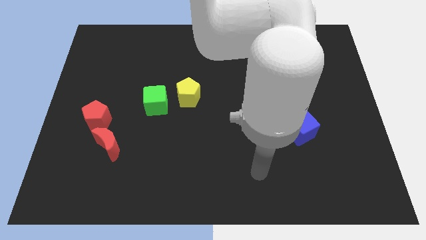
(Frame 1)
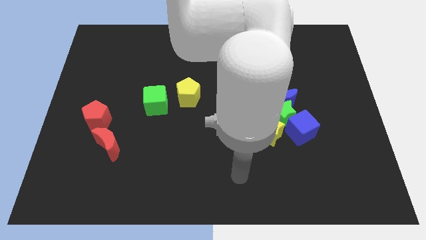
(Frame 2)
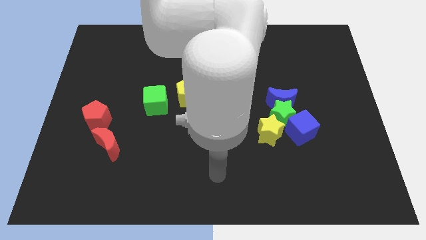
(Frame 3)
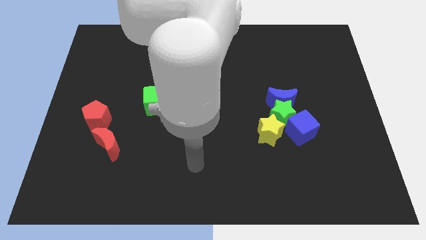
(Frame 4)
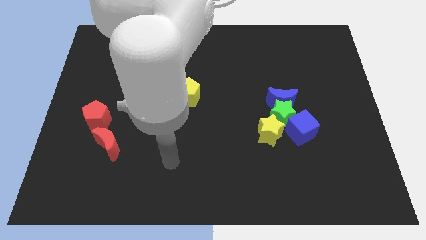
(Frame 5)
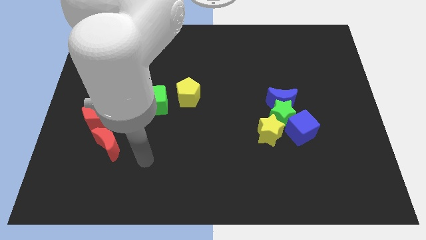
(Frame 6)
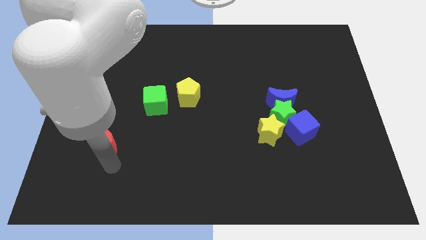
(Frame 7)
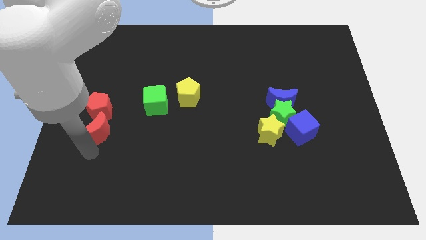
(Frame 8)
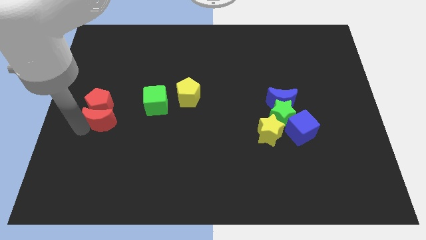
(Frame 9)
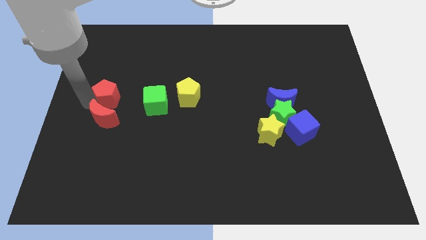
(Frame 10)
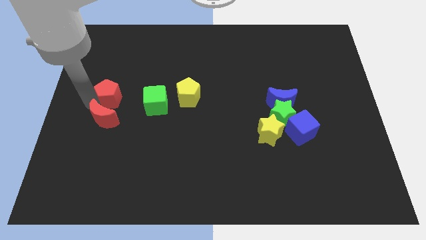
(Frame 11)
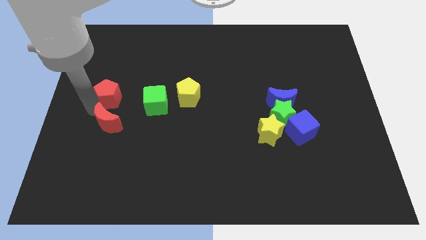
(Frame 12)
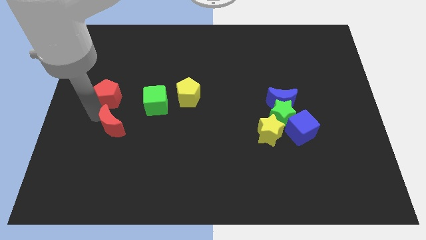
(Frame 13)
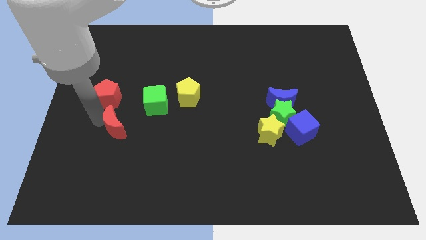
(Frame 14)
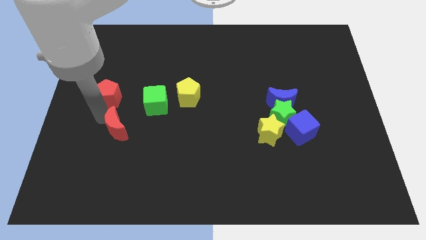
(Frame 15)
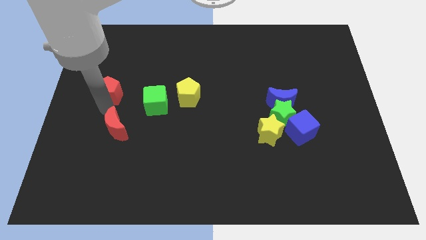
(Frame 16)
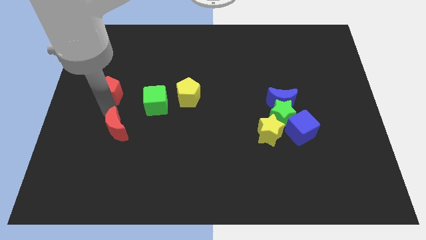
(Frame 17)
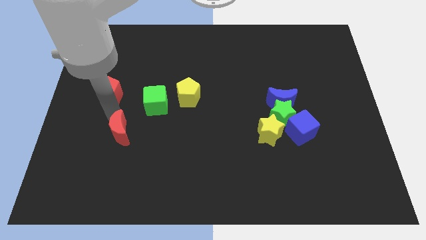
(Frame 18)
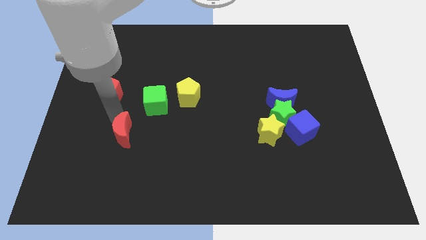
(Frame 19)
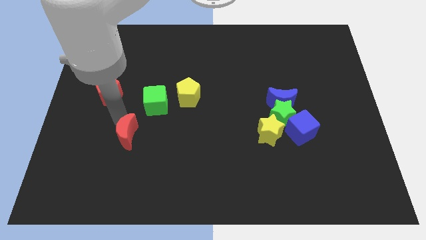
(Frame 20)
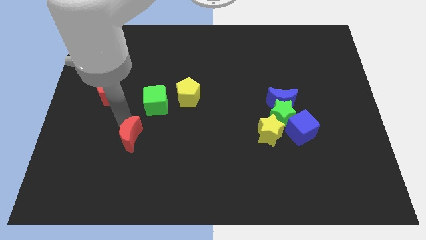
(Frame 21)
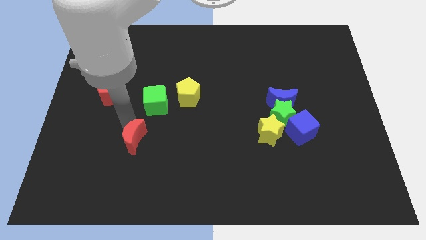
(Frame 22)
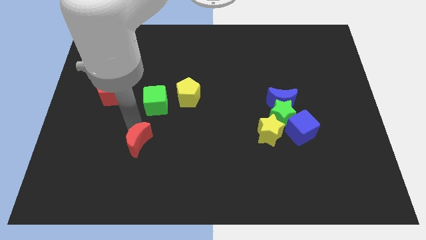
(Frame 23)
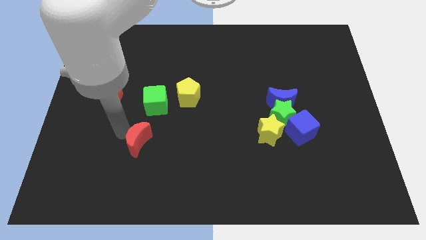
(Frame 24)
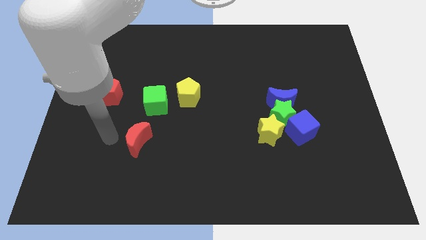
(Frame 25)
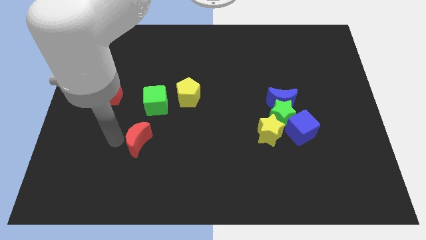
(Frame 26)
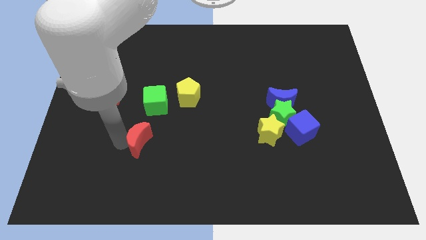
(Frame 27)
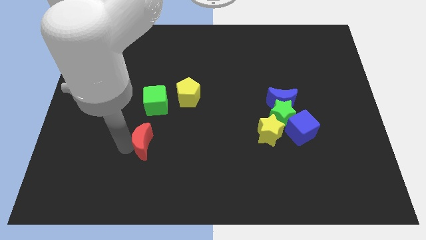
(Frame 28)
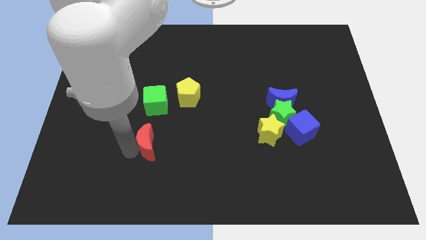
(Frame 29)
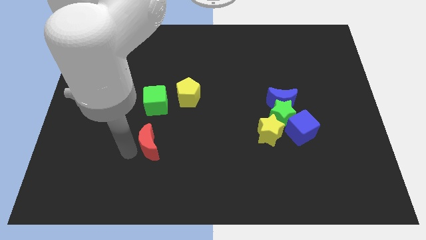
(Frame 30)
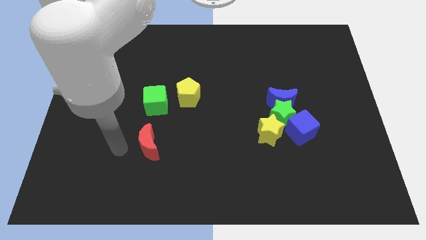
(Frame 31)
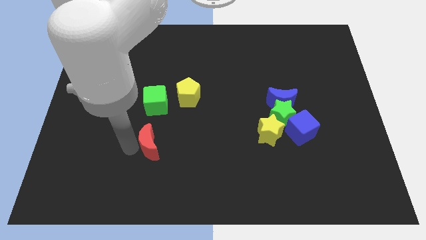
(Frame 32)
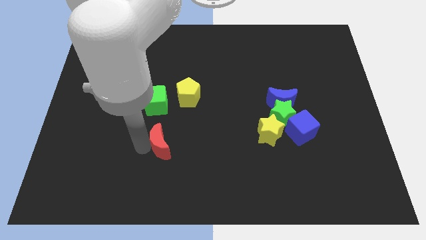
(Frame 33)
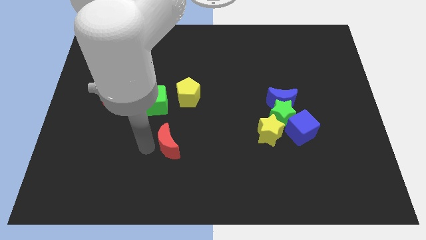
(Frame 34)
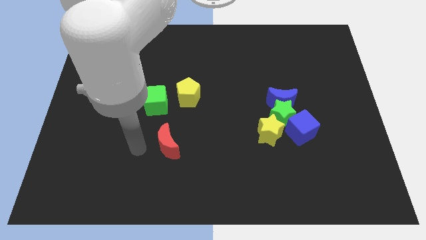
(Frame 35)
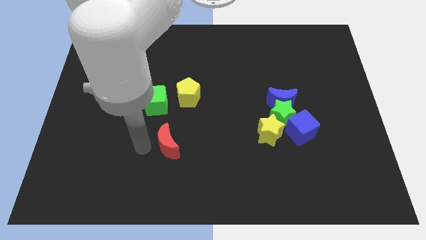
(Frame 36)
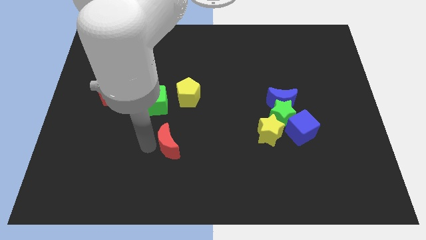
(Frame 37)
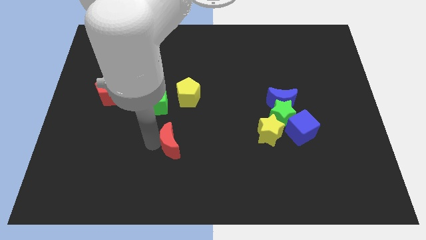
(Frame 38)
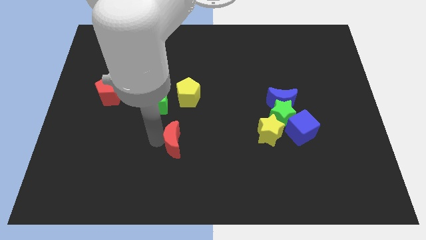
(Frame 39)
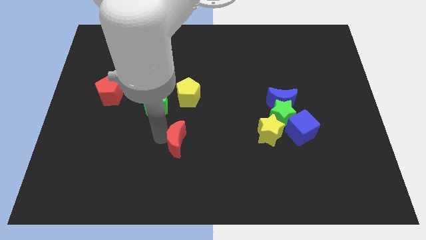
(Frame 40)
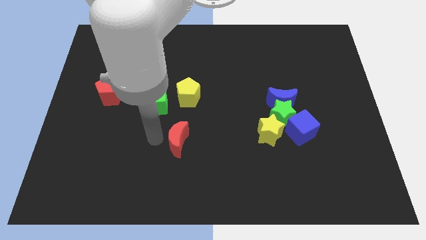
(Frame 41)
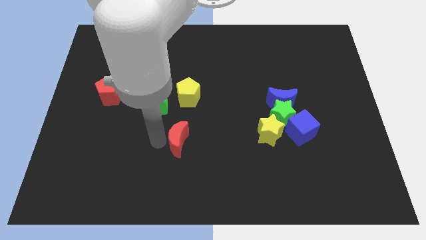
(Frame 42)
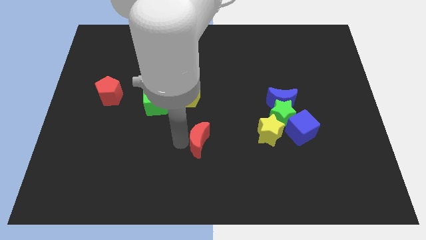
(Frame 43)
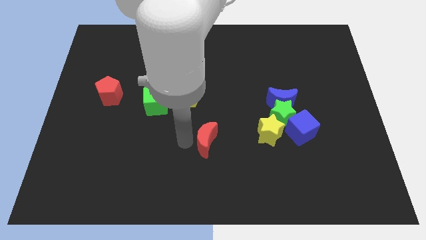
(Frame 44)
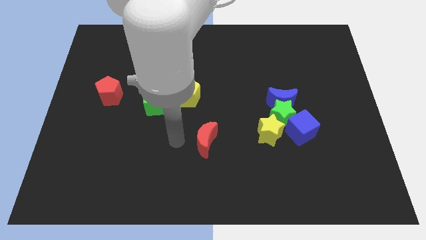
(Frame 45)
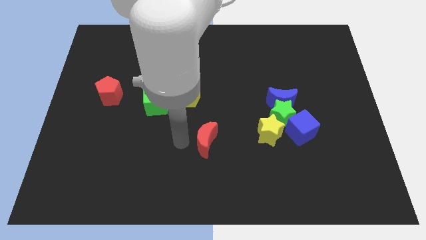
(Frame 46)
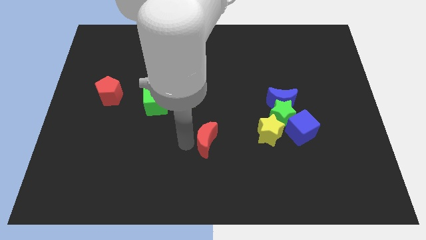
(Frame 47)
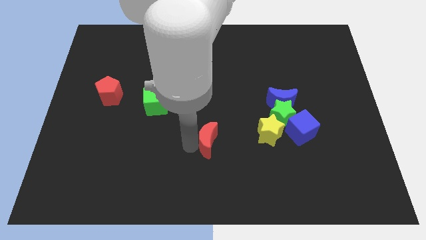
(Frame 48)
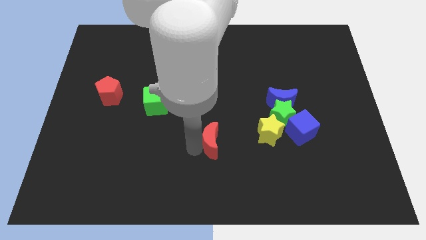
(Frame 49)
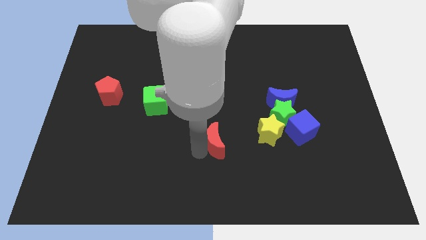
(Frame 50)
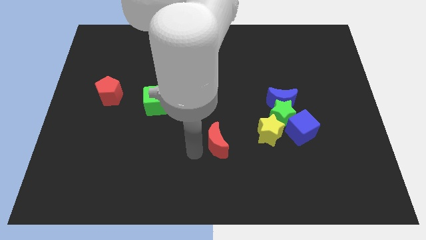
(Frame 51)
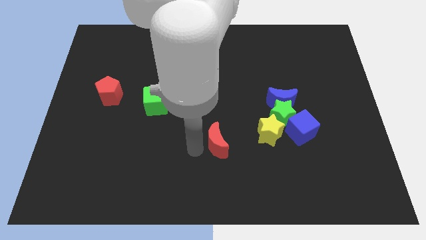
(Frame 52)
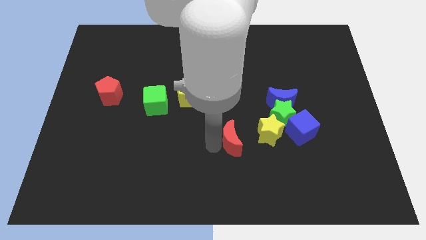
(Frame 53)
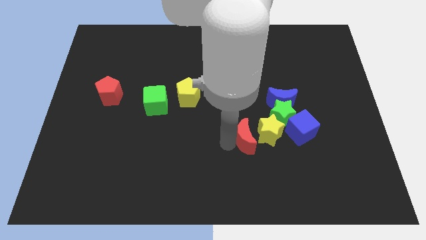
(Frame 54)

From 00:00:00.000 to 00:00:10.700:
push the red moon towards the yellow star
